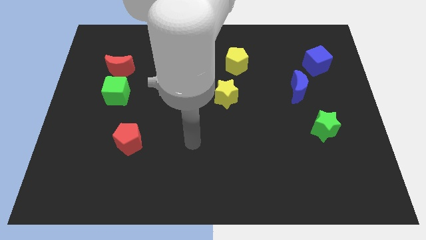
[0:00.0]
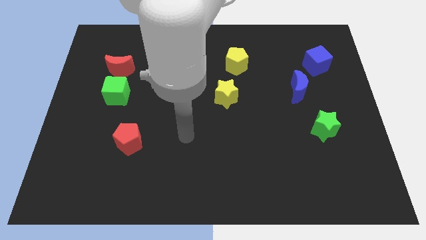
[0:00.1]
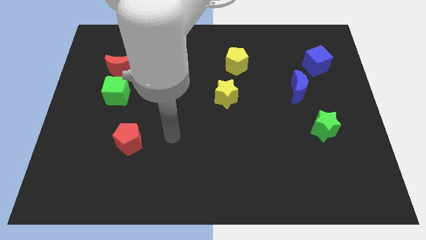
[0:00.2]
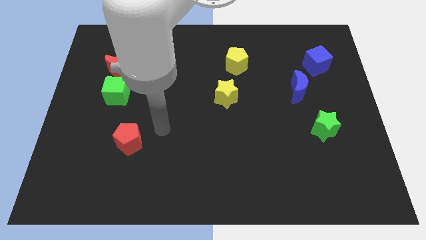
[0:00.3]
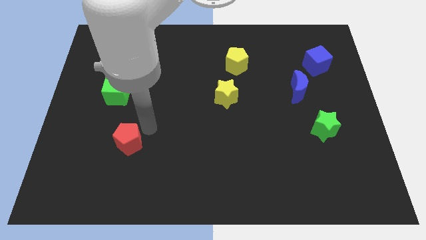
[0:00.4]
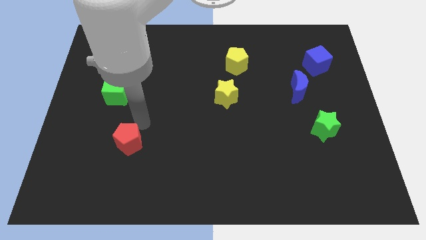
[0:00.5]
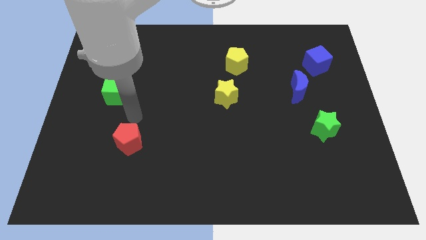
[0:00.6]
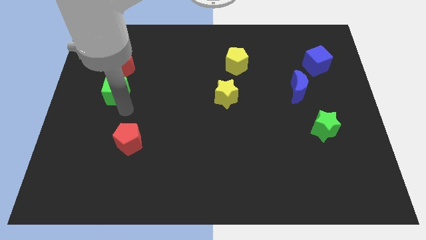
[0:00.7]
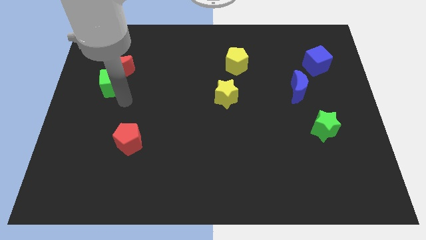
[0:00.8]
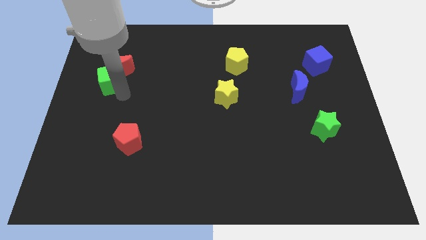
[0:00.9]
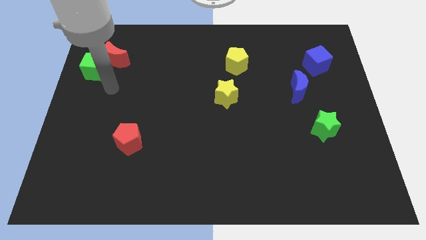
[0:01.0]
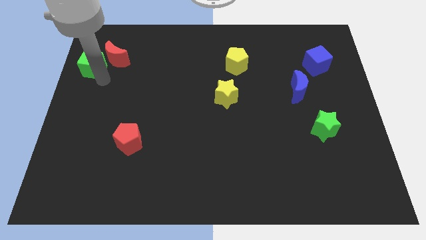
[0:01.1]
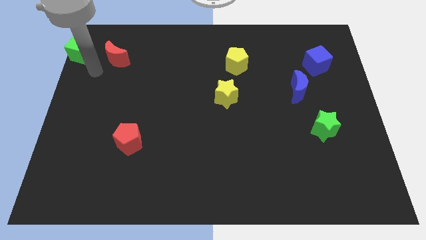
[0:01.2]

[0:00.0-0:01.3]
separate the red moon from the green cube

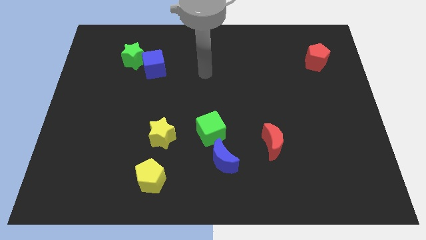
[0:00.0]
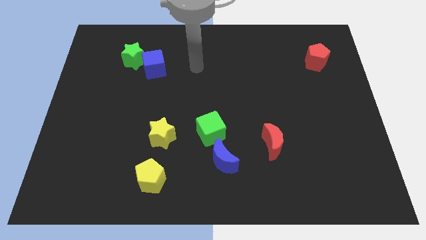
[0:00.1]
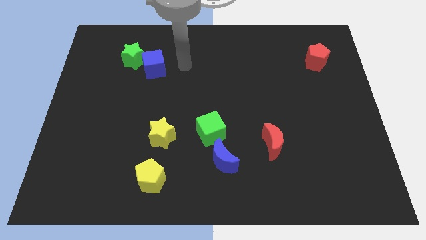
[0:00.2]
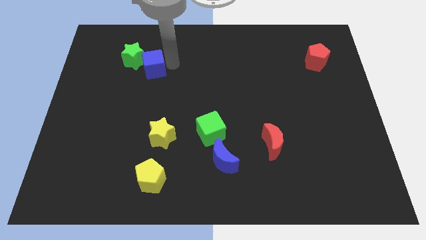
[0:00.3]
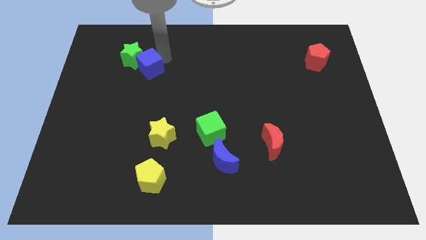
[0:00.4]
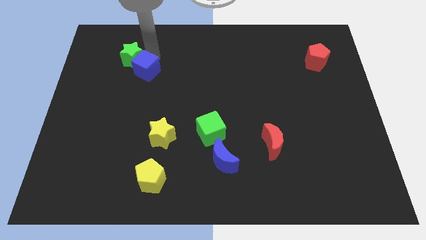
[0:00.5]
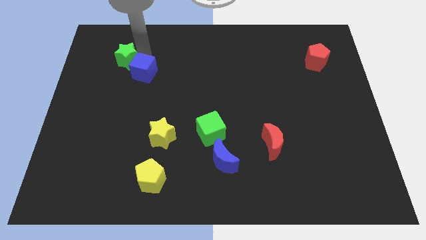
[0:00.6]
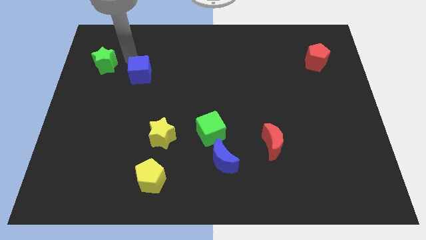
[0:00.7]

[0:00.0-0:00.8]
pull the blue cube apart from the green star

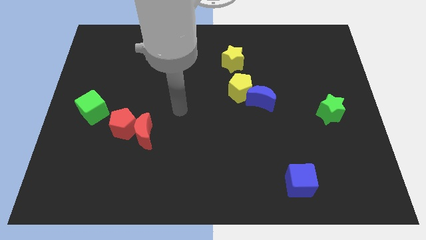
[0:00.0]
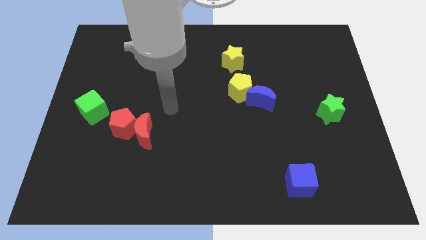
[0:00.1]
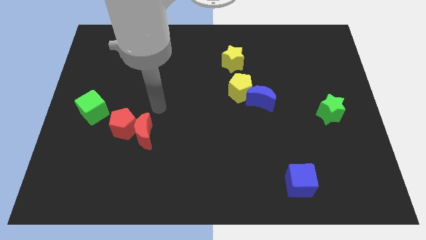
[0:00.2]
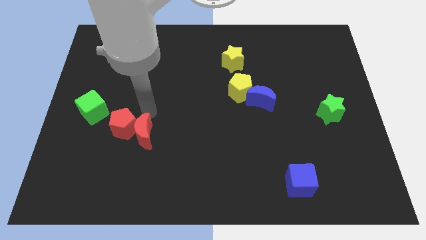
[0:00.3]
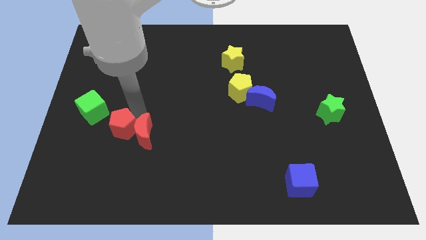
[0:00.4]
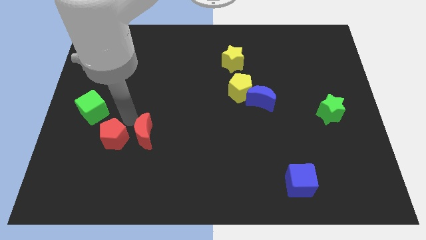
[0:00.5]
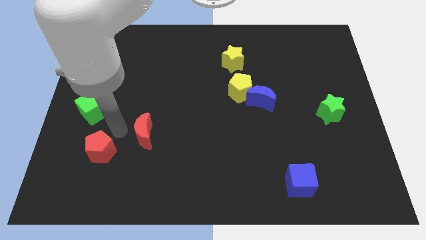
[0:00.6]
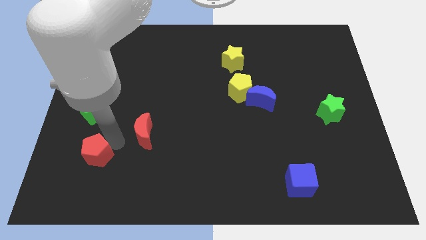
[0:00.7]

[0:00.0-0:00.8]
separate the red moon from the red pentagon

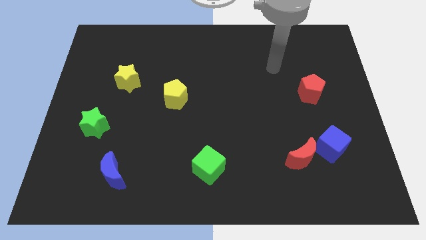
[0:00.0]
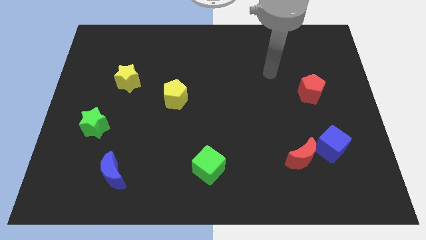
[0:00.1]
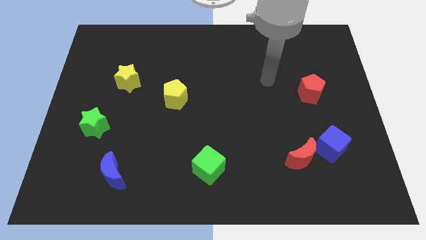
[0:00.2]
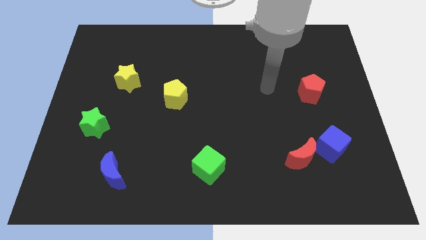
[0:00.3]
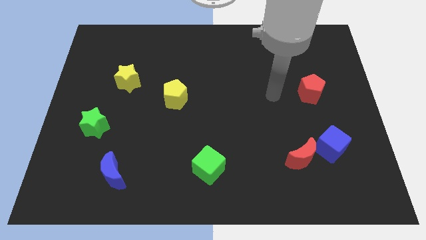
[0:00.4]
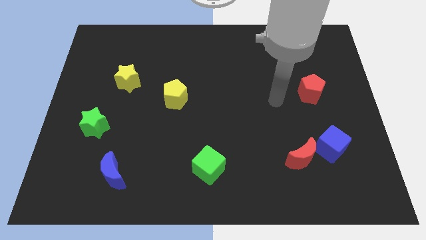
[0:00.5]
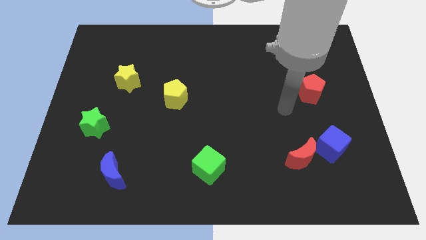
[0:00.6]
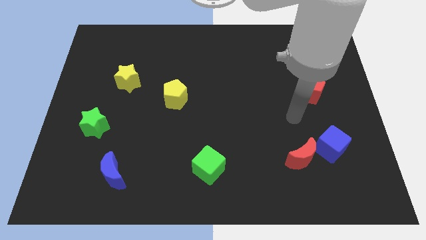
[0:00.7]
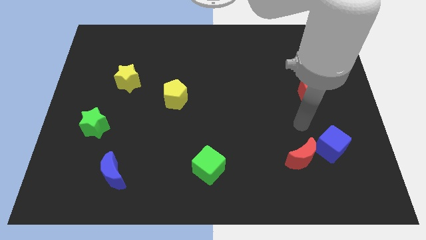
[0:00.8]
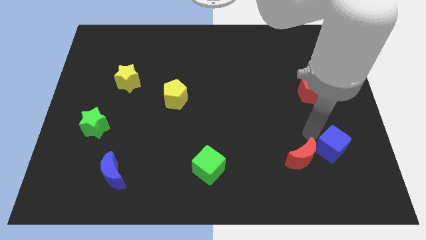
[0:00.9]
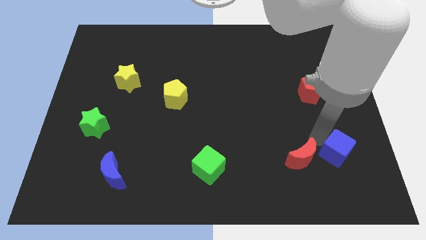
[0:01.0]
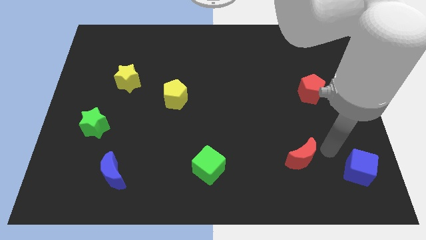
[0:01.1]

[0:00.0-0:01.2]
separate the red moon from the blue cube

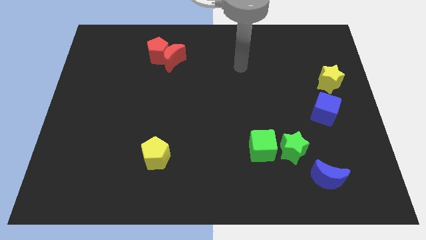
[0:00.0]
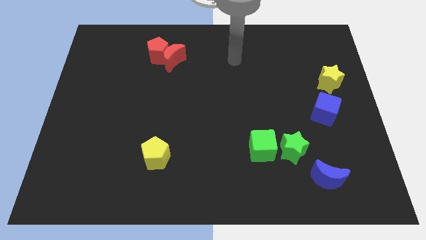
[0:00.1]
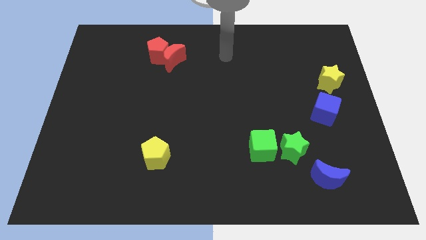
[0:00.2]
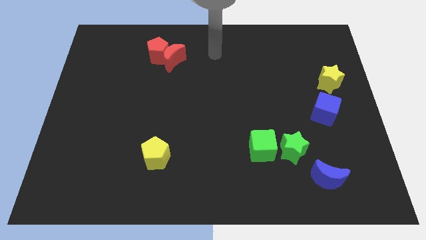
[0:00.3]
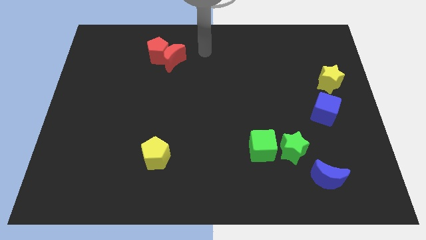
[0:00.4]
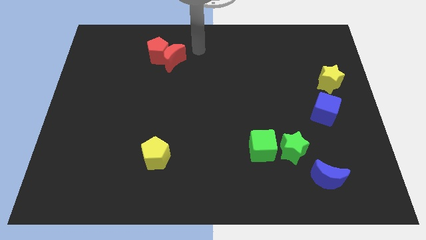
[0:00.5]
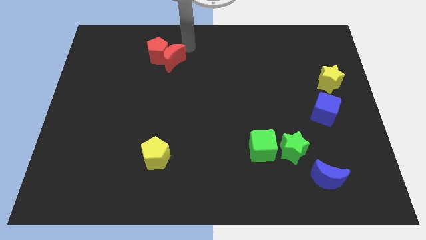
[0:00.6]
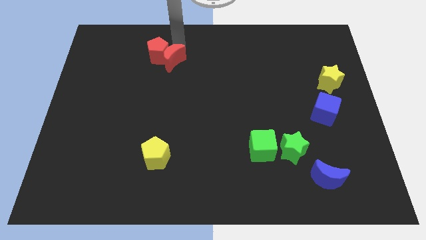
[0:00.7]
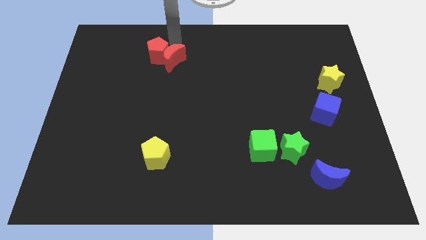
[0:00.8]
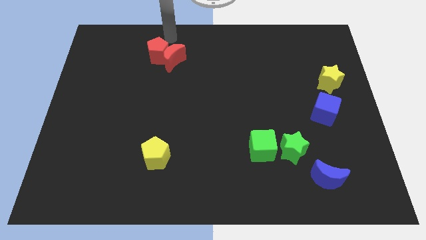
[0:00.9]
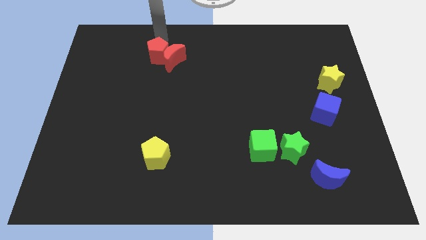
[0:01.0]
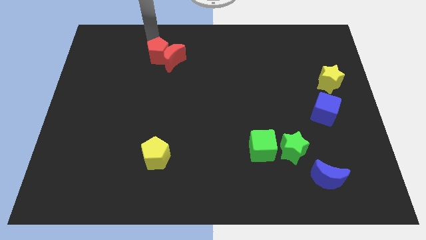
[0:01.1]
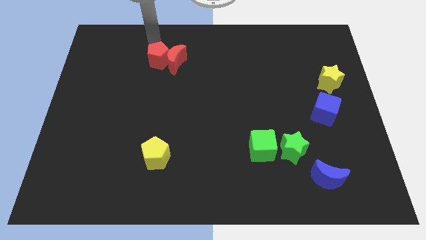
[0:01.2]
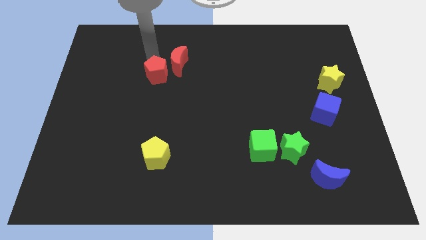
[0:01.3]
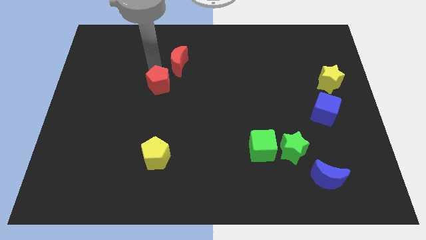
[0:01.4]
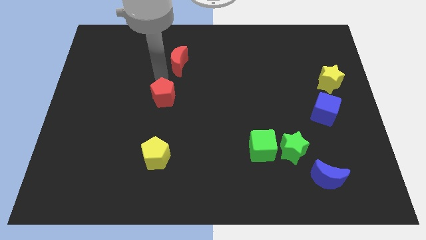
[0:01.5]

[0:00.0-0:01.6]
move the red moon away from the red pentagon

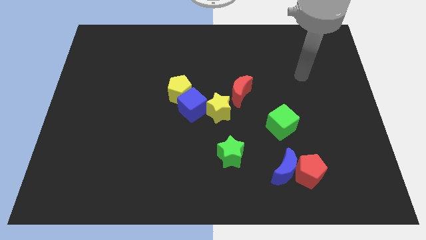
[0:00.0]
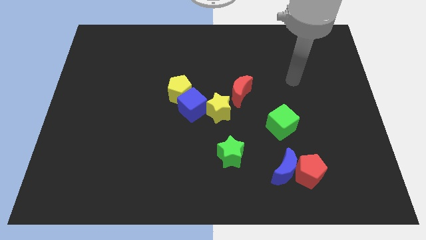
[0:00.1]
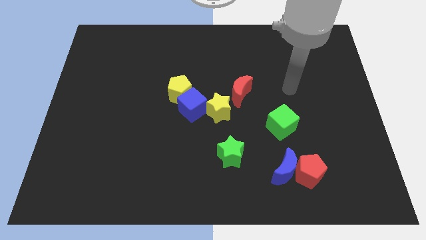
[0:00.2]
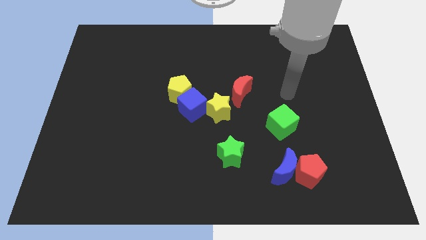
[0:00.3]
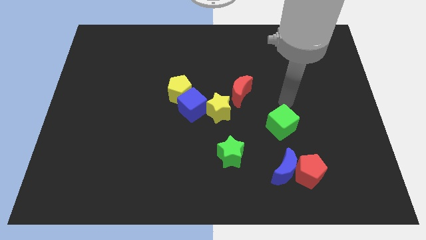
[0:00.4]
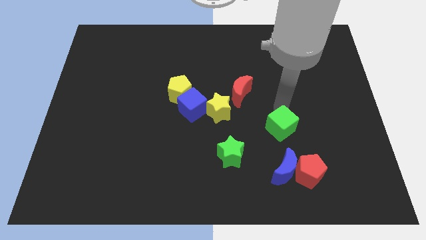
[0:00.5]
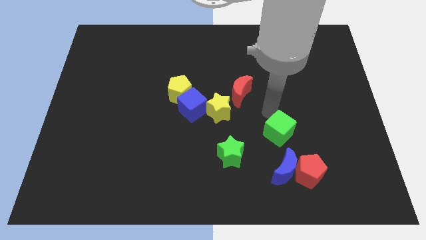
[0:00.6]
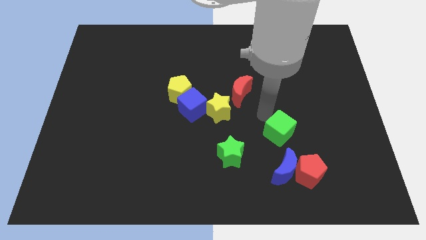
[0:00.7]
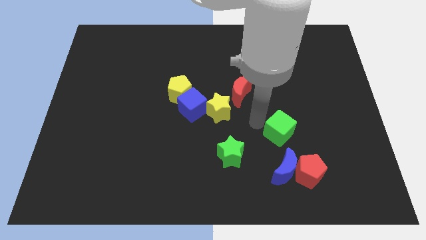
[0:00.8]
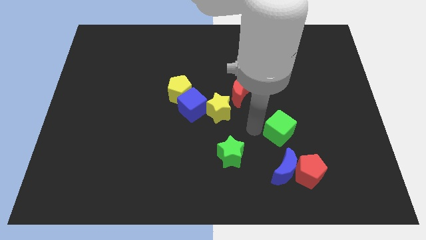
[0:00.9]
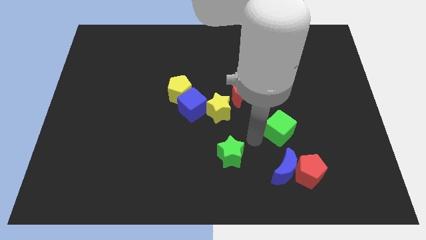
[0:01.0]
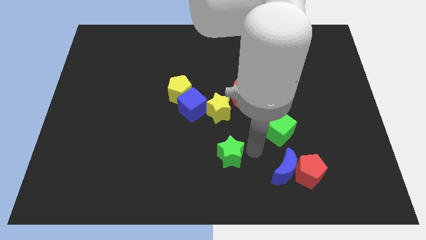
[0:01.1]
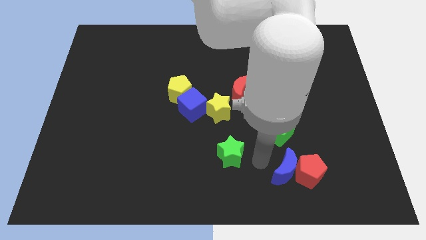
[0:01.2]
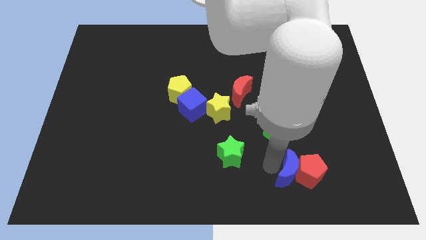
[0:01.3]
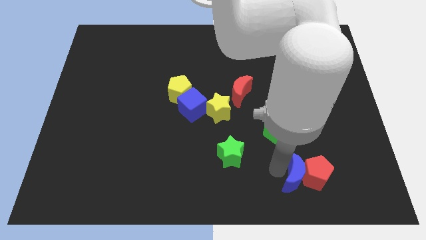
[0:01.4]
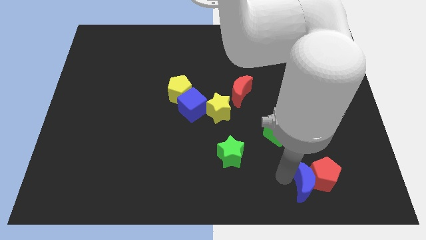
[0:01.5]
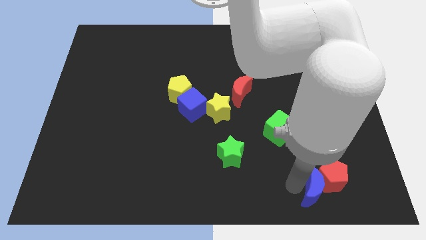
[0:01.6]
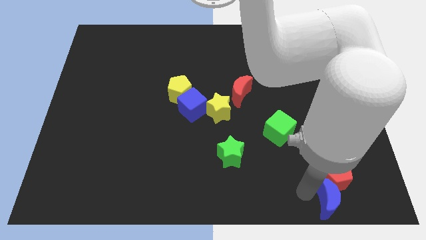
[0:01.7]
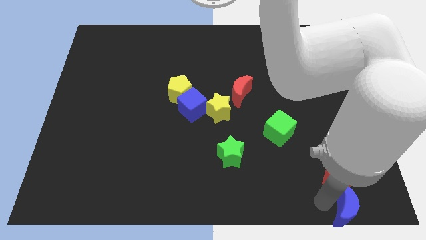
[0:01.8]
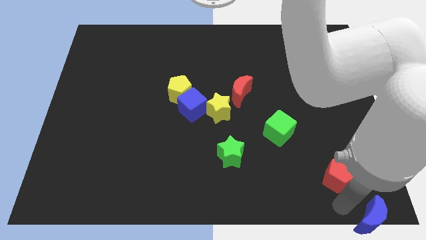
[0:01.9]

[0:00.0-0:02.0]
pull the red pentagon apart from the blue moon

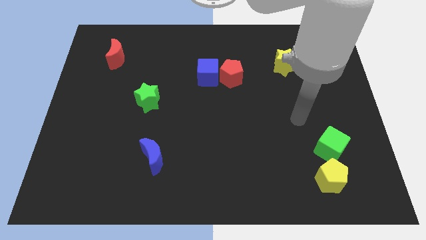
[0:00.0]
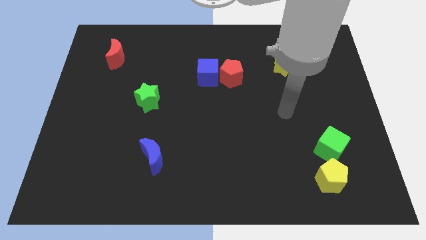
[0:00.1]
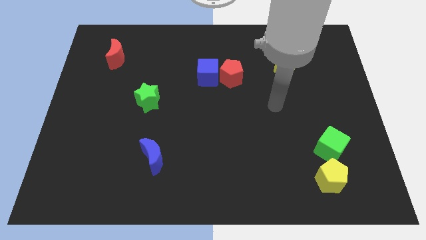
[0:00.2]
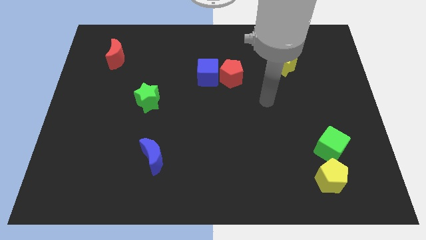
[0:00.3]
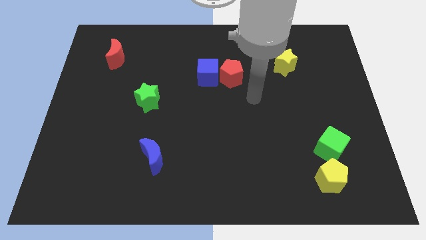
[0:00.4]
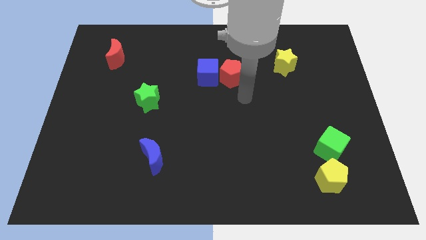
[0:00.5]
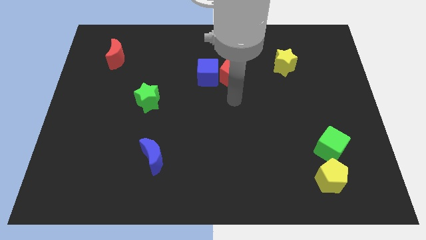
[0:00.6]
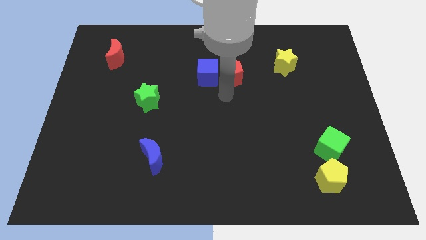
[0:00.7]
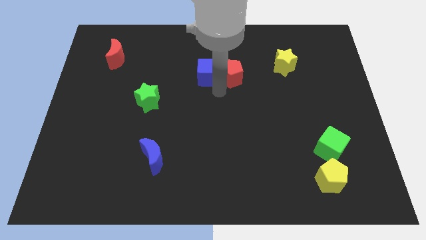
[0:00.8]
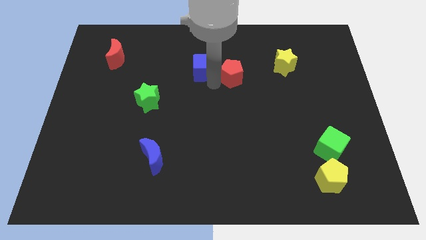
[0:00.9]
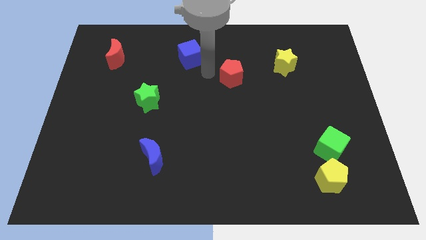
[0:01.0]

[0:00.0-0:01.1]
pull the red pentagon apart from the blue cube

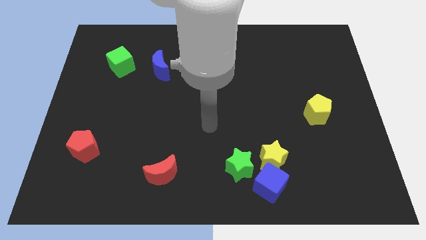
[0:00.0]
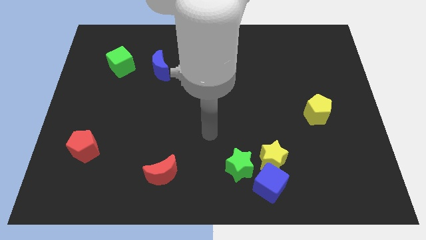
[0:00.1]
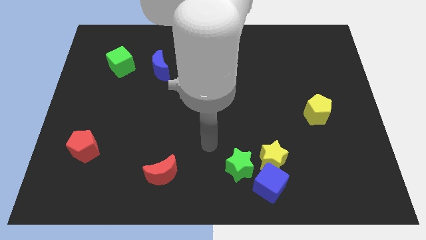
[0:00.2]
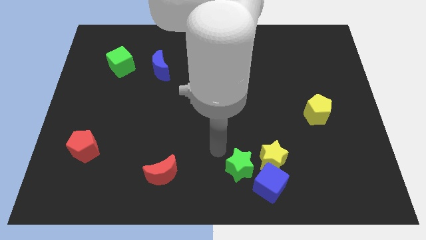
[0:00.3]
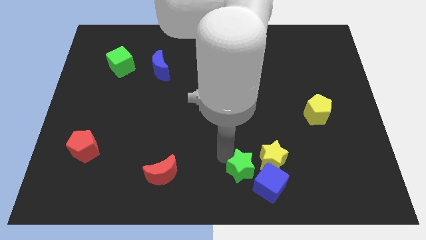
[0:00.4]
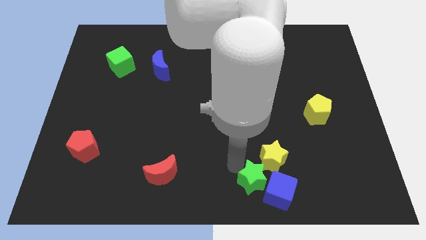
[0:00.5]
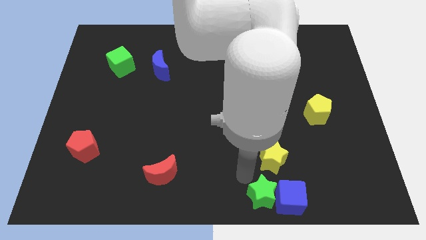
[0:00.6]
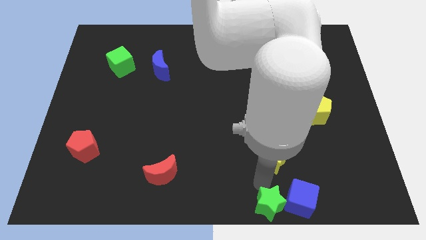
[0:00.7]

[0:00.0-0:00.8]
pull the yellow star apart from the blue cube and green star
